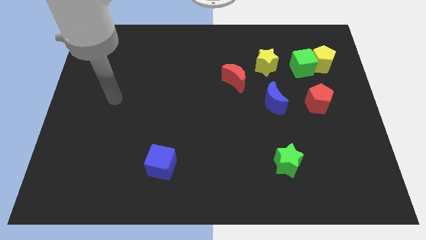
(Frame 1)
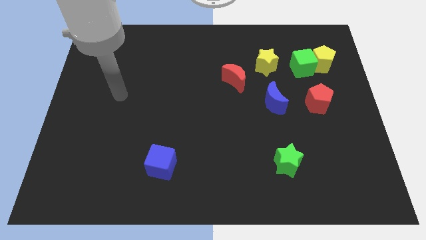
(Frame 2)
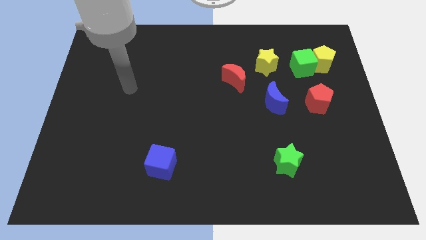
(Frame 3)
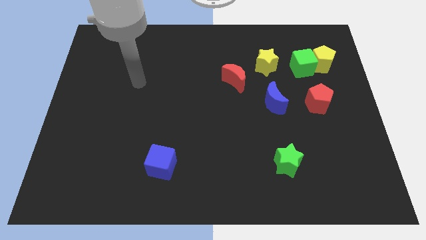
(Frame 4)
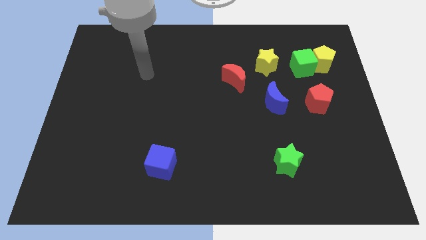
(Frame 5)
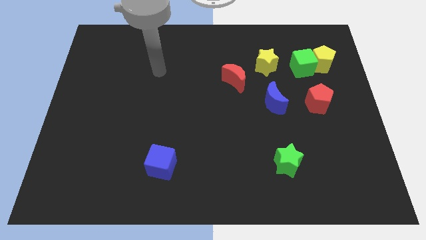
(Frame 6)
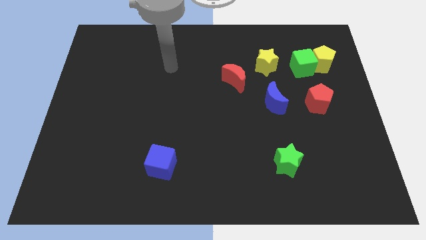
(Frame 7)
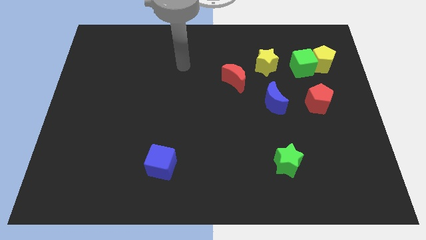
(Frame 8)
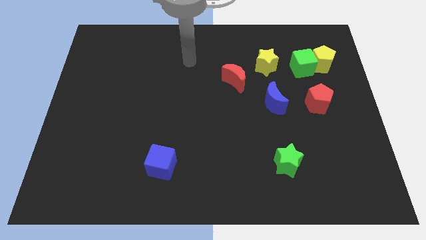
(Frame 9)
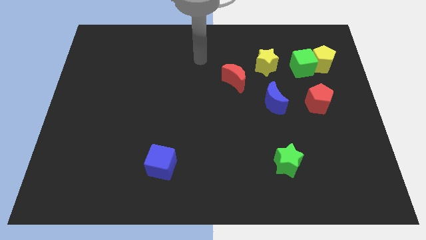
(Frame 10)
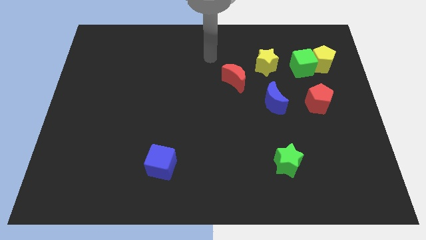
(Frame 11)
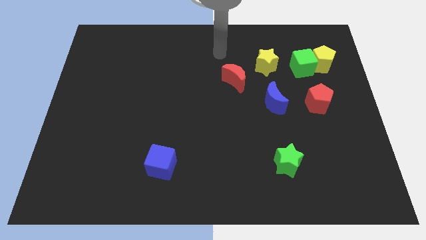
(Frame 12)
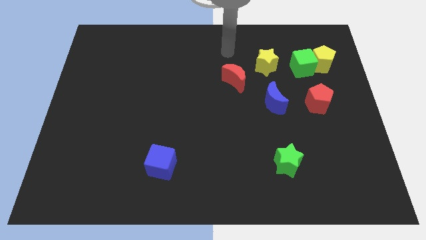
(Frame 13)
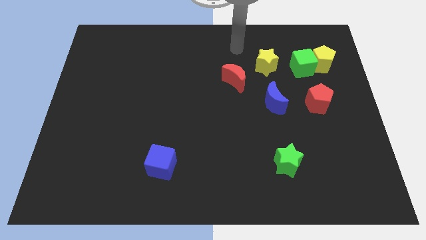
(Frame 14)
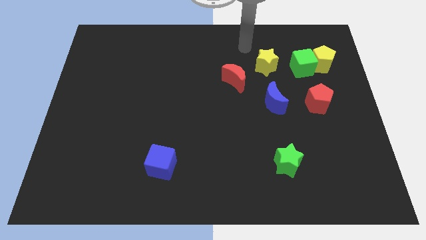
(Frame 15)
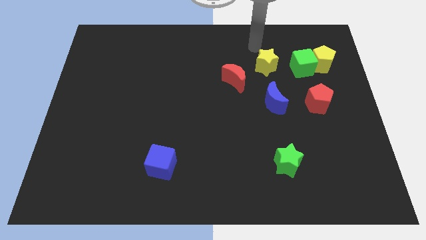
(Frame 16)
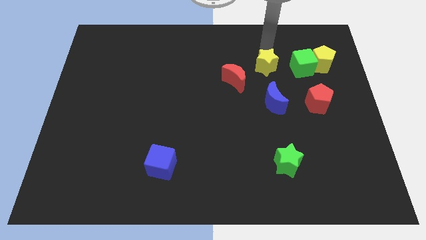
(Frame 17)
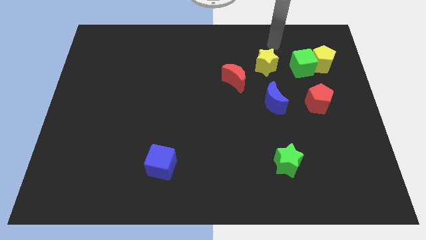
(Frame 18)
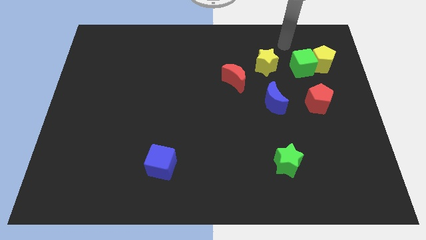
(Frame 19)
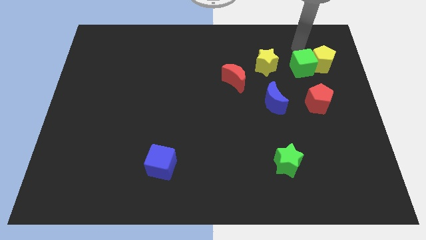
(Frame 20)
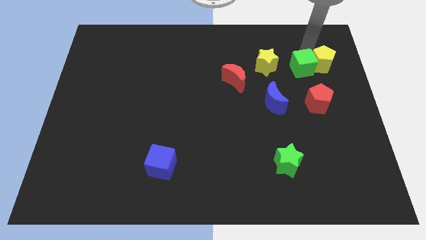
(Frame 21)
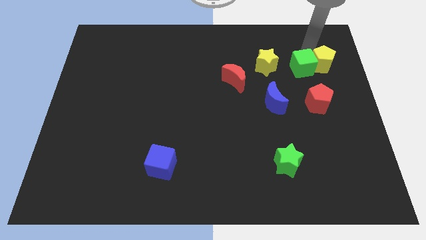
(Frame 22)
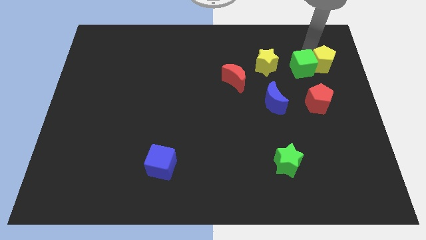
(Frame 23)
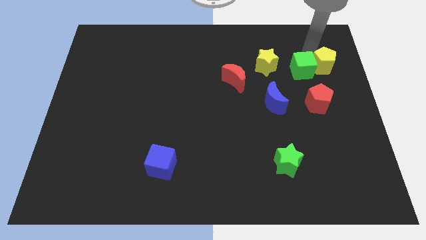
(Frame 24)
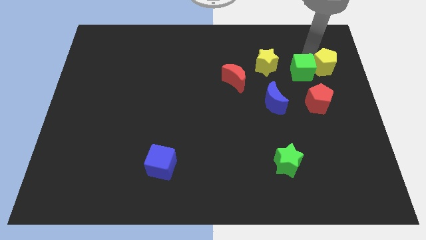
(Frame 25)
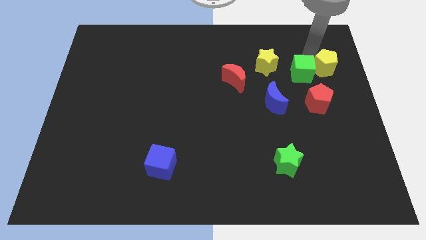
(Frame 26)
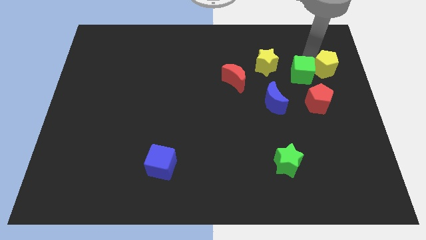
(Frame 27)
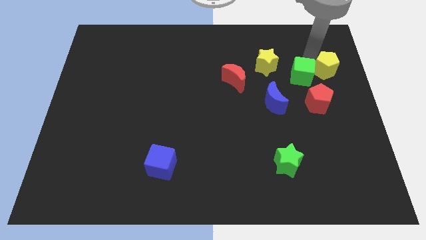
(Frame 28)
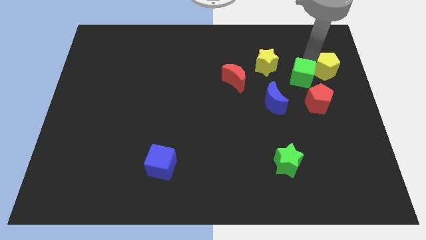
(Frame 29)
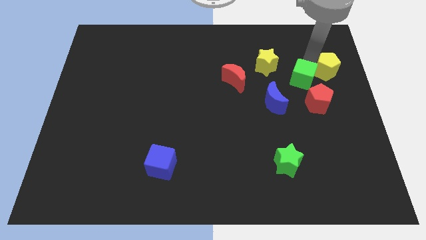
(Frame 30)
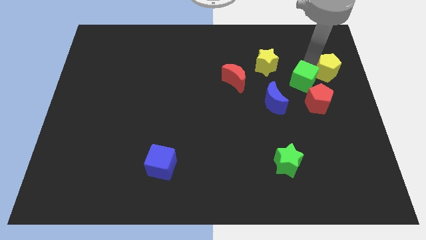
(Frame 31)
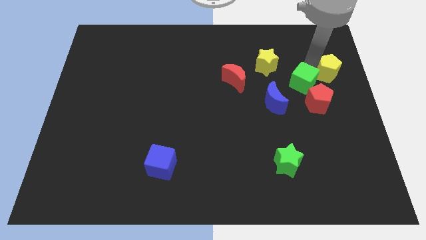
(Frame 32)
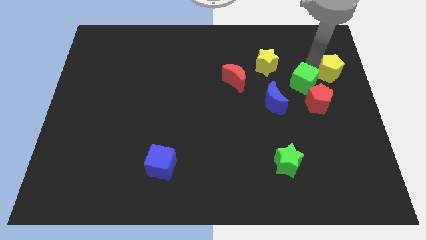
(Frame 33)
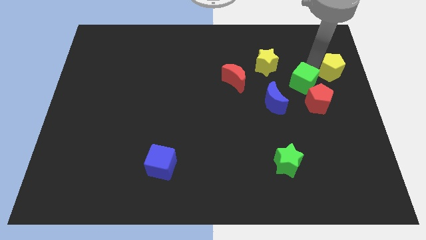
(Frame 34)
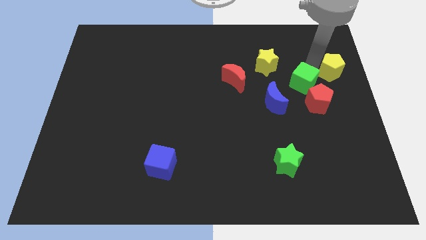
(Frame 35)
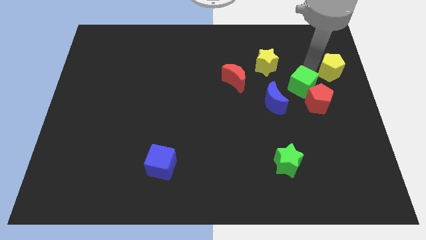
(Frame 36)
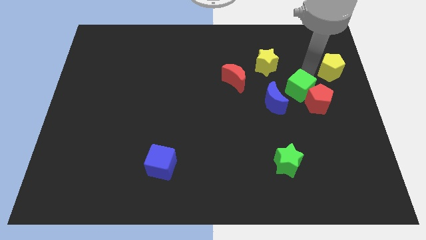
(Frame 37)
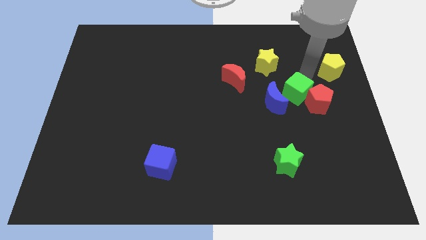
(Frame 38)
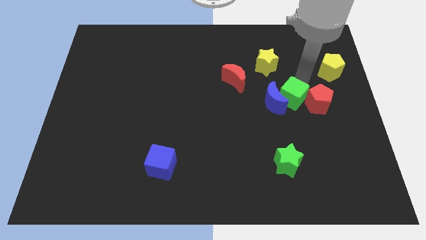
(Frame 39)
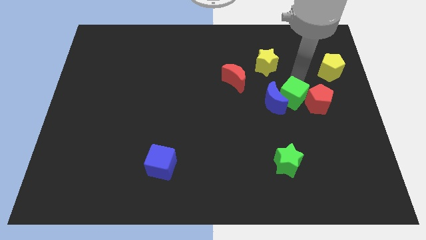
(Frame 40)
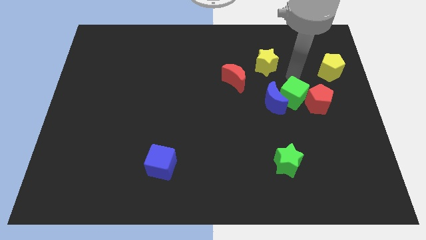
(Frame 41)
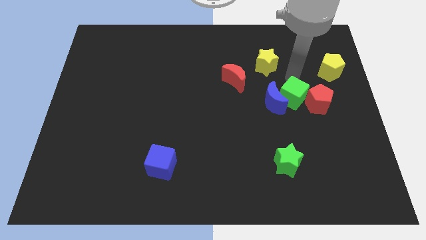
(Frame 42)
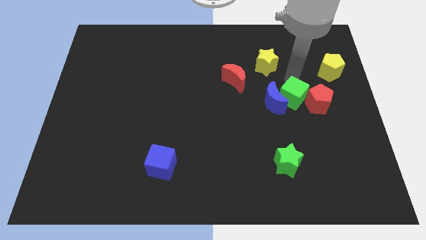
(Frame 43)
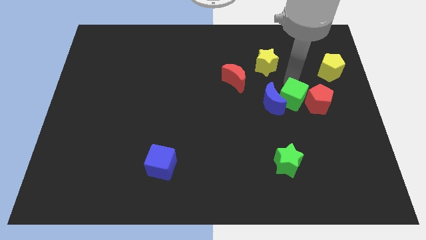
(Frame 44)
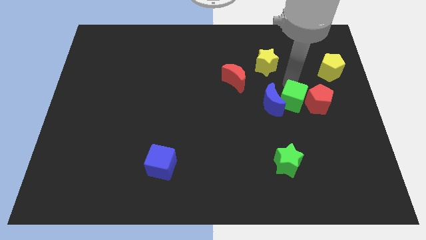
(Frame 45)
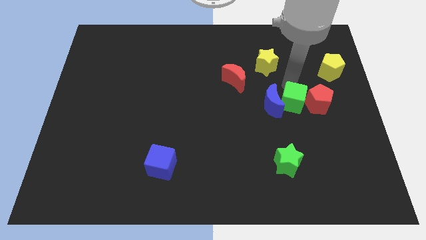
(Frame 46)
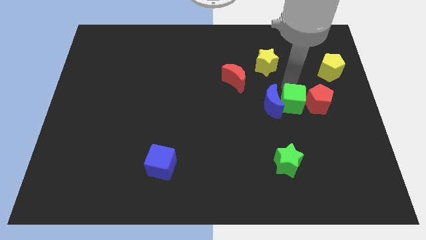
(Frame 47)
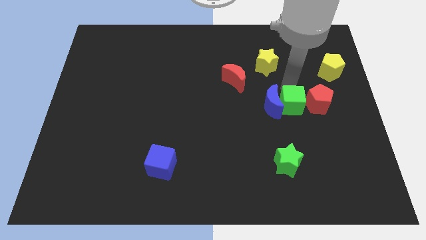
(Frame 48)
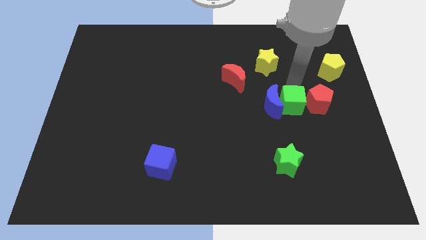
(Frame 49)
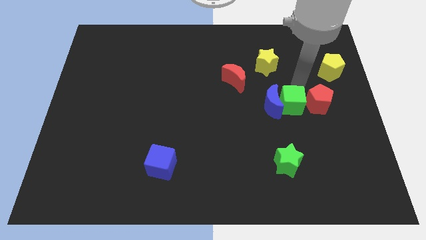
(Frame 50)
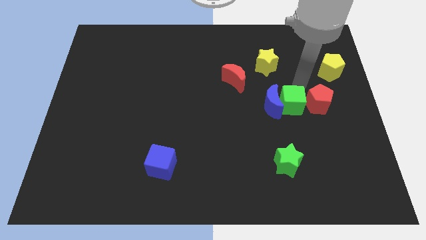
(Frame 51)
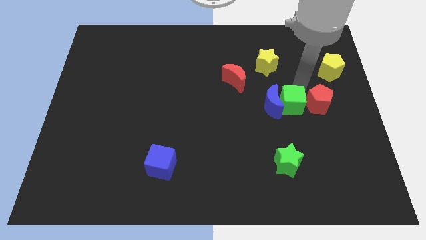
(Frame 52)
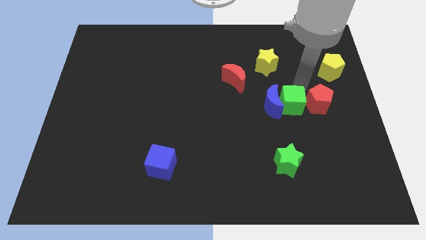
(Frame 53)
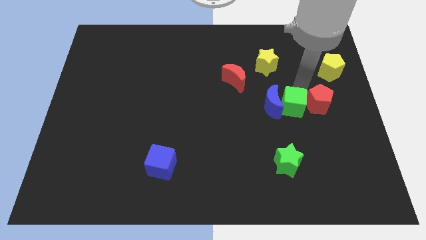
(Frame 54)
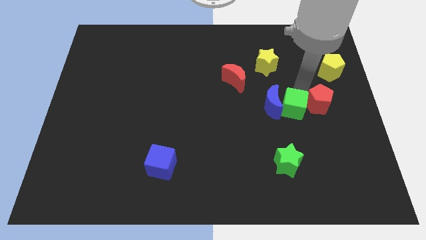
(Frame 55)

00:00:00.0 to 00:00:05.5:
slide the green cube to the top side of the green star

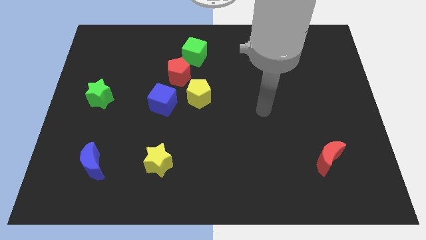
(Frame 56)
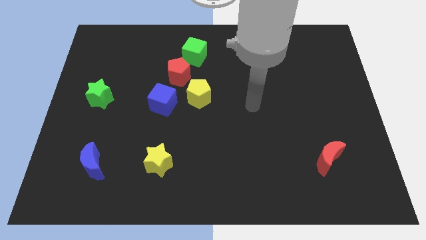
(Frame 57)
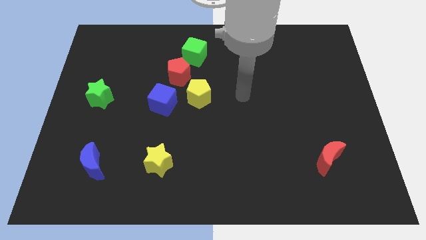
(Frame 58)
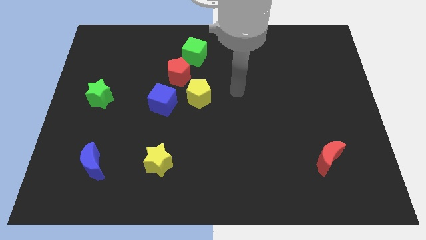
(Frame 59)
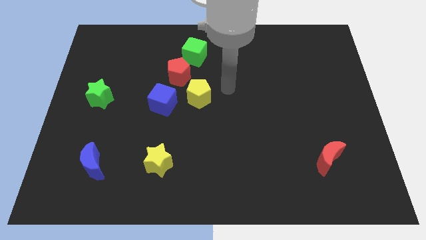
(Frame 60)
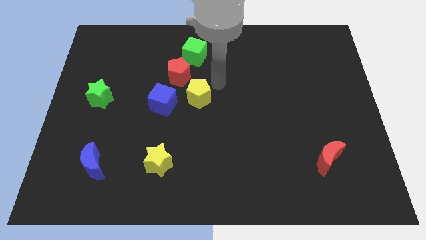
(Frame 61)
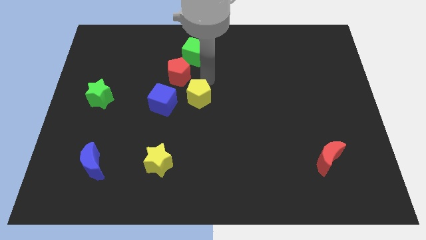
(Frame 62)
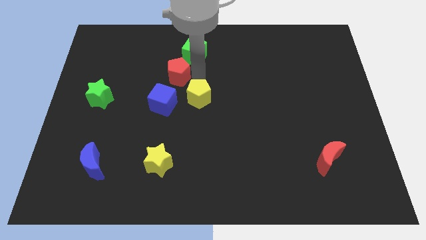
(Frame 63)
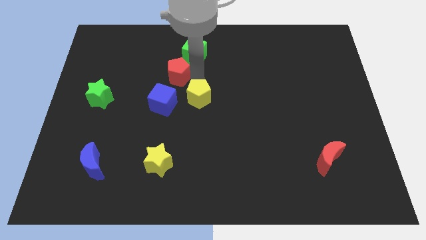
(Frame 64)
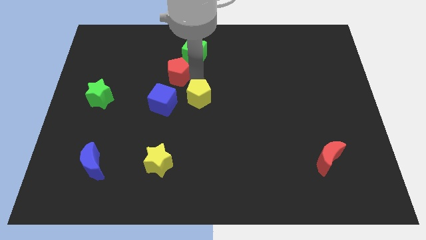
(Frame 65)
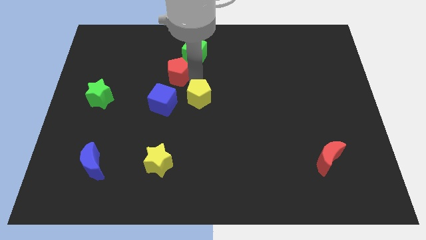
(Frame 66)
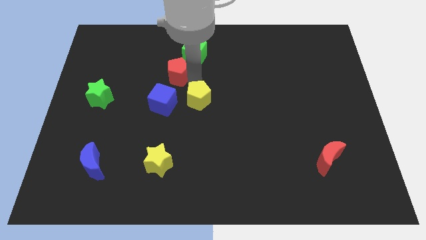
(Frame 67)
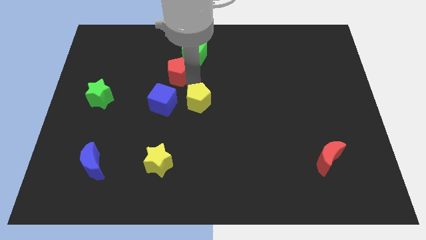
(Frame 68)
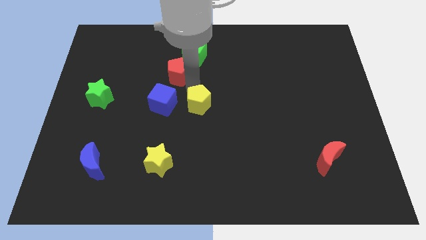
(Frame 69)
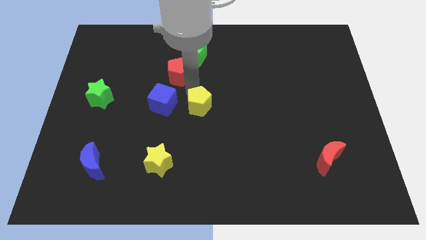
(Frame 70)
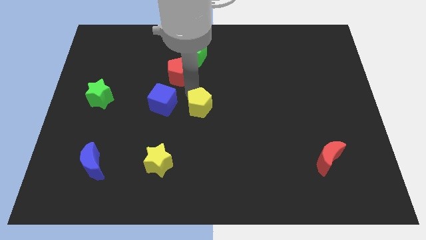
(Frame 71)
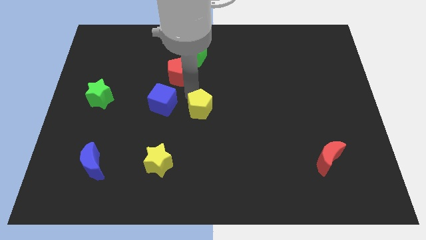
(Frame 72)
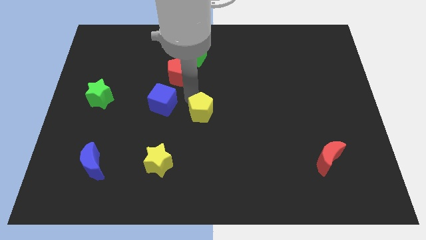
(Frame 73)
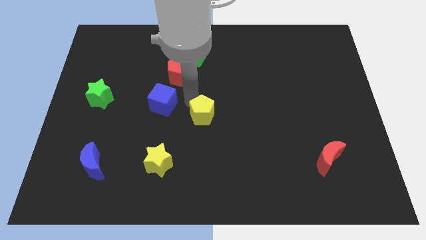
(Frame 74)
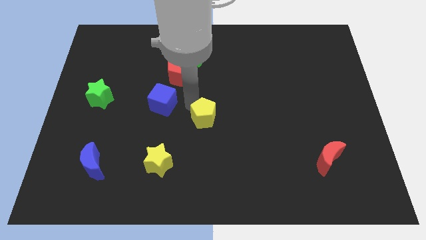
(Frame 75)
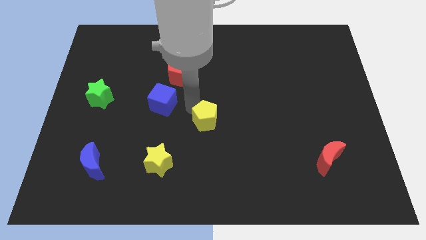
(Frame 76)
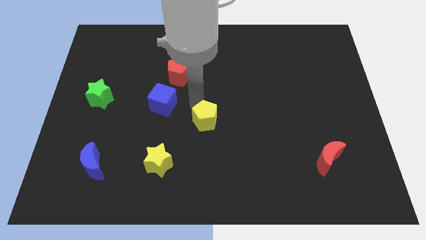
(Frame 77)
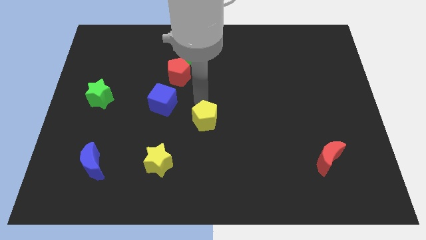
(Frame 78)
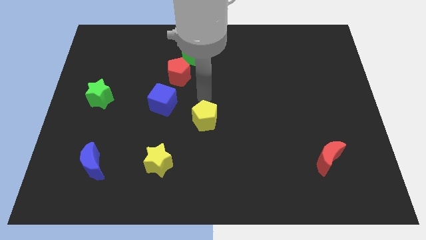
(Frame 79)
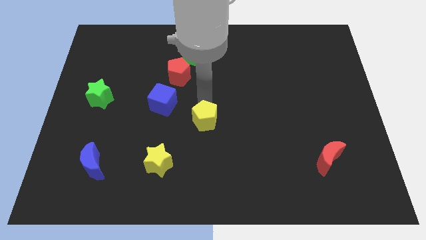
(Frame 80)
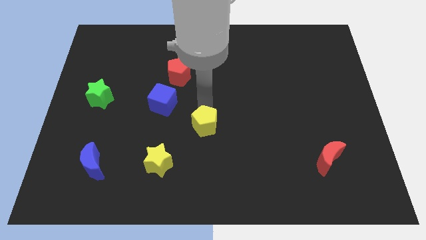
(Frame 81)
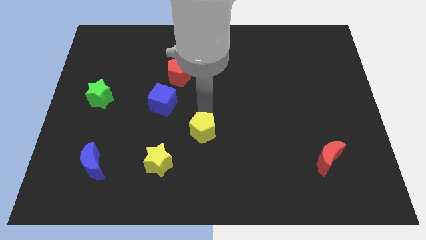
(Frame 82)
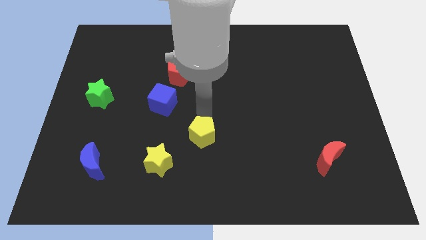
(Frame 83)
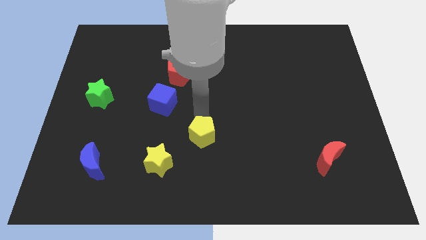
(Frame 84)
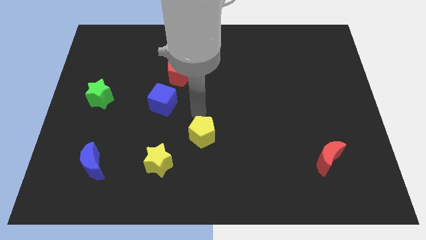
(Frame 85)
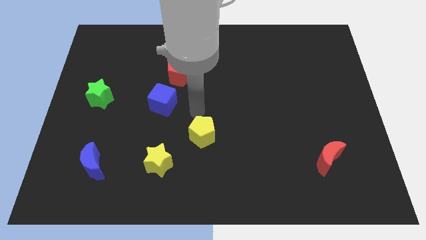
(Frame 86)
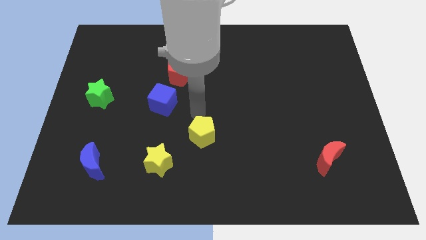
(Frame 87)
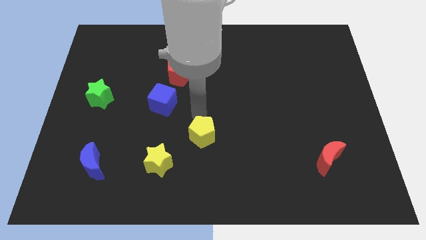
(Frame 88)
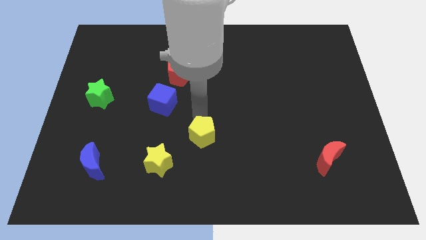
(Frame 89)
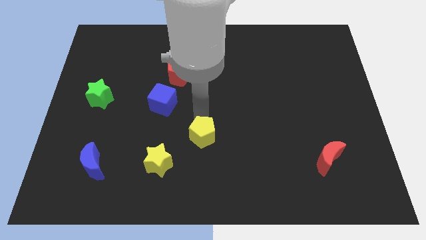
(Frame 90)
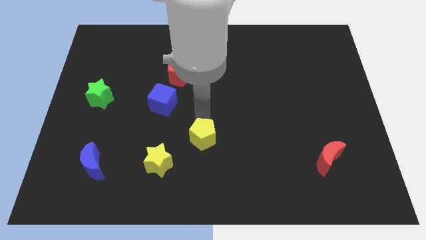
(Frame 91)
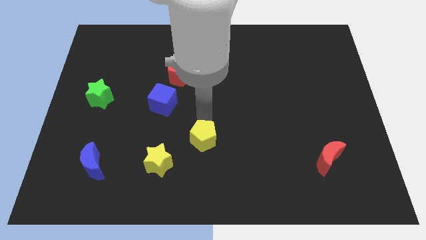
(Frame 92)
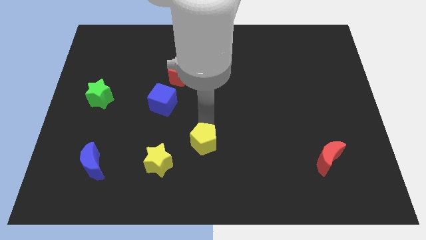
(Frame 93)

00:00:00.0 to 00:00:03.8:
move the yellow pentagon to the right of the yellow star
